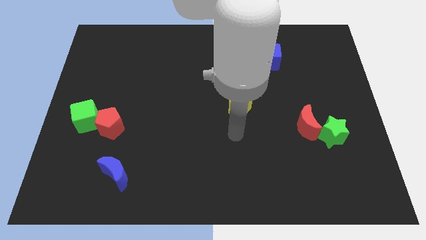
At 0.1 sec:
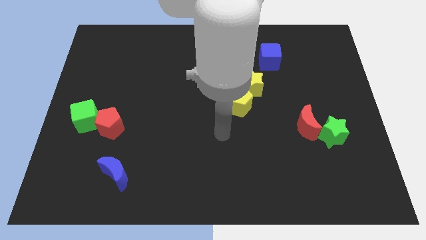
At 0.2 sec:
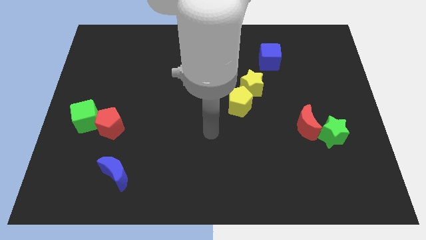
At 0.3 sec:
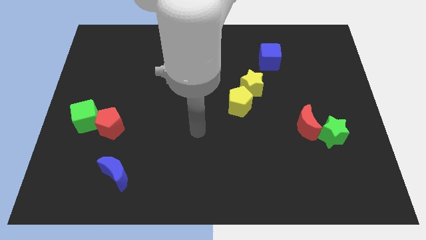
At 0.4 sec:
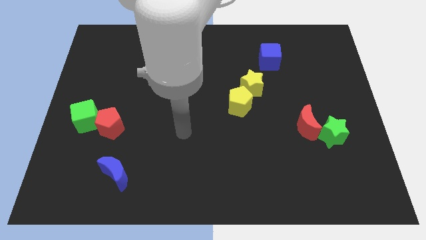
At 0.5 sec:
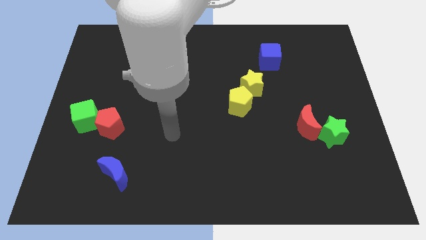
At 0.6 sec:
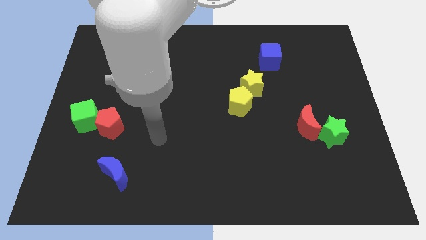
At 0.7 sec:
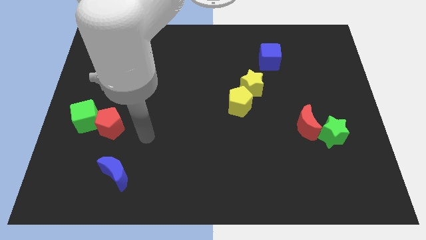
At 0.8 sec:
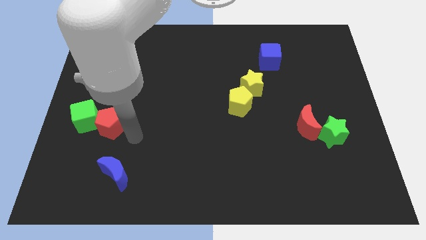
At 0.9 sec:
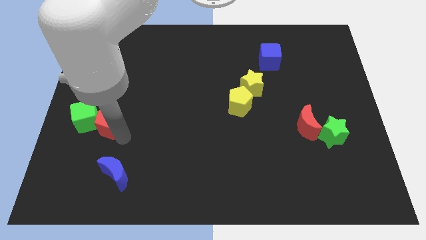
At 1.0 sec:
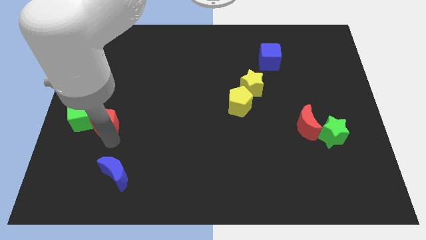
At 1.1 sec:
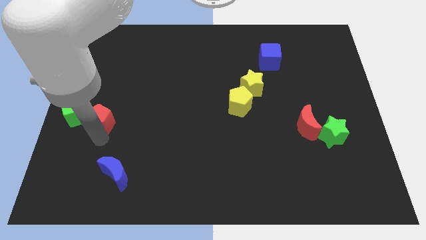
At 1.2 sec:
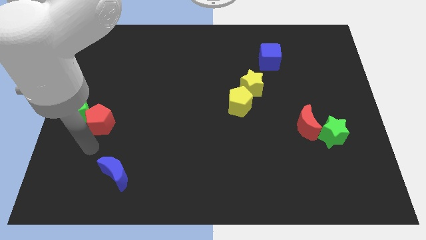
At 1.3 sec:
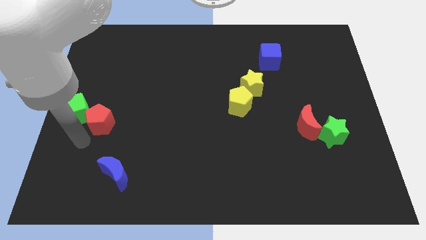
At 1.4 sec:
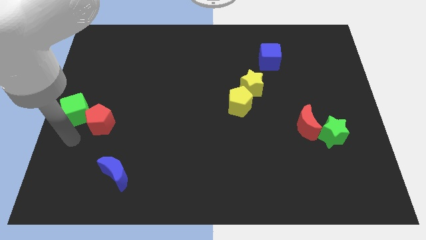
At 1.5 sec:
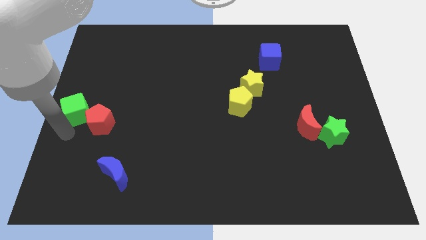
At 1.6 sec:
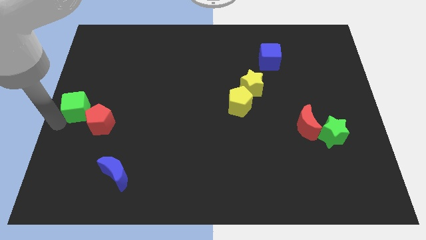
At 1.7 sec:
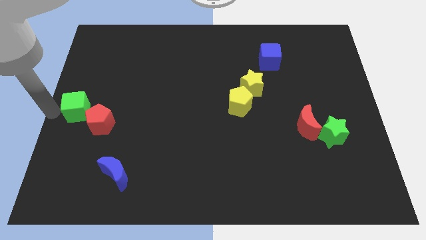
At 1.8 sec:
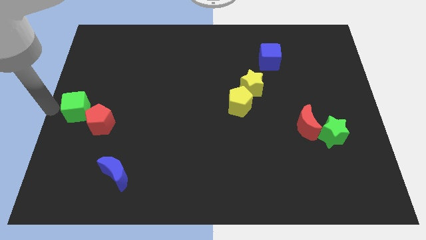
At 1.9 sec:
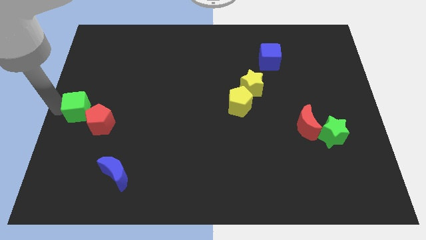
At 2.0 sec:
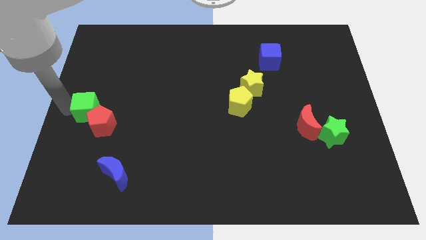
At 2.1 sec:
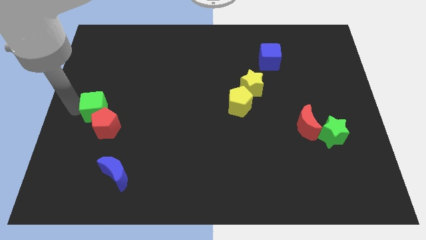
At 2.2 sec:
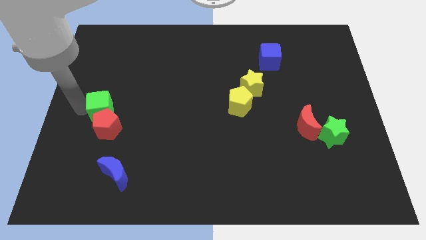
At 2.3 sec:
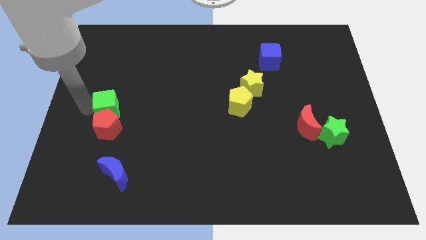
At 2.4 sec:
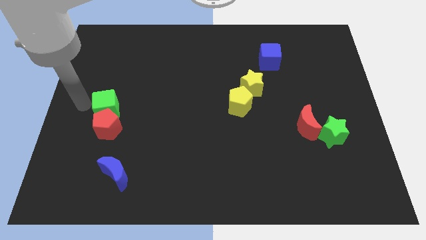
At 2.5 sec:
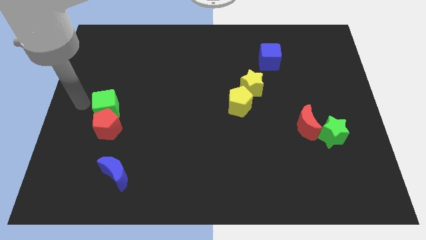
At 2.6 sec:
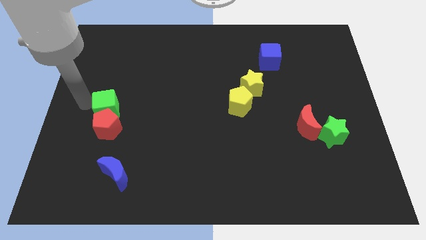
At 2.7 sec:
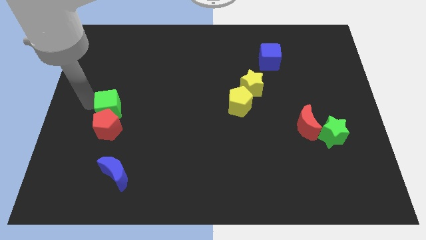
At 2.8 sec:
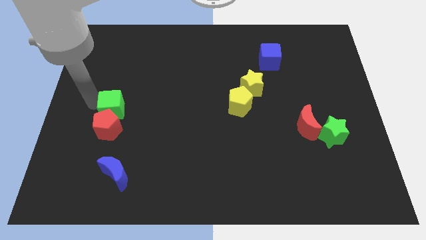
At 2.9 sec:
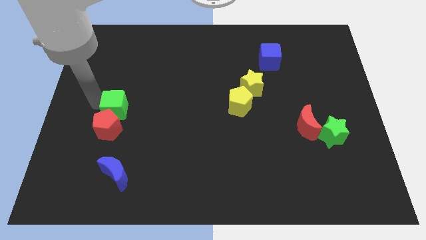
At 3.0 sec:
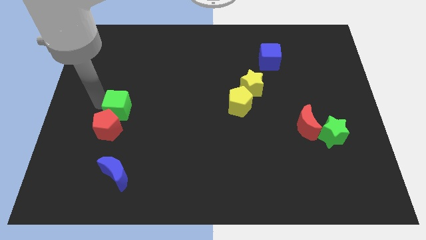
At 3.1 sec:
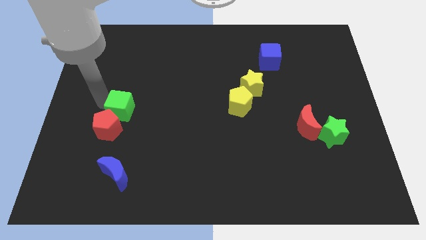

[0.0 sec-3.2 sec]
push the green cube right a little

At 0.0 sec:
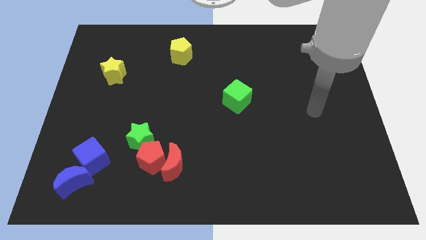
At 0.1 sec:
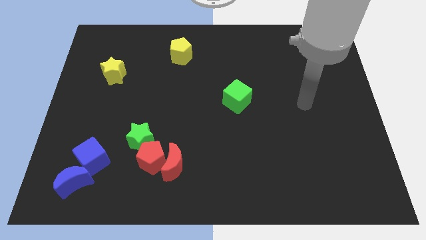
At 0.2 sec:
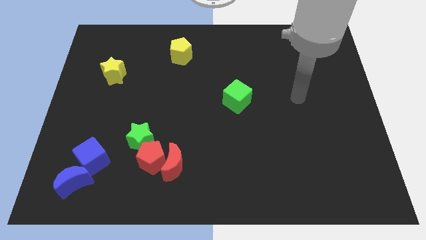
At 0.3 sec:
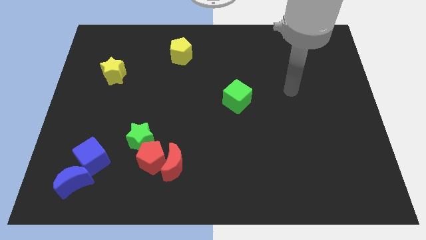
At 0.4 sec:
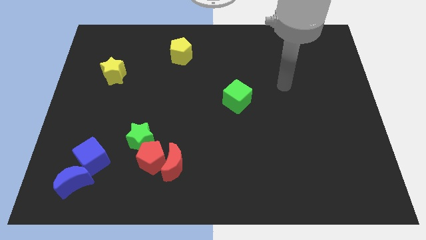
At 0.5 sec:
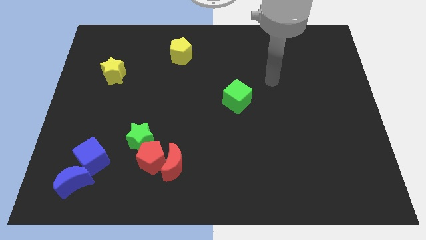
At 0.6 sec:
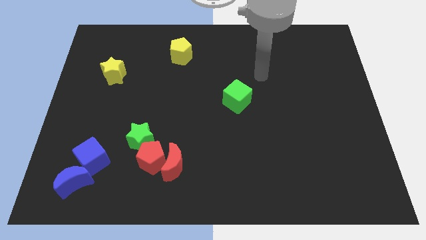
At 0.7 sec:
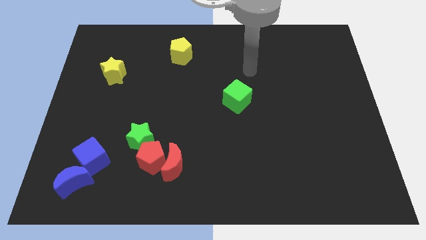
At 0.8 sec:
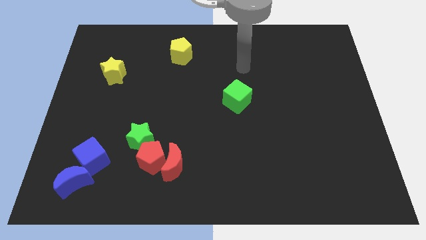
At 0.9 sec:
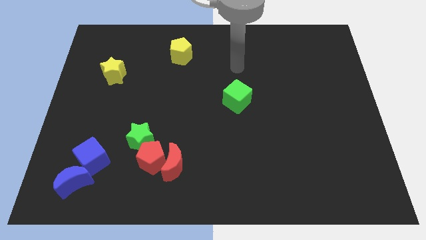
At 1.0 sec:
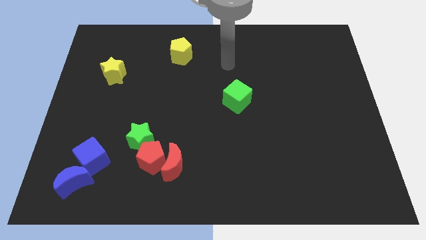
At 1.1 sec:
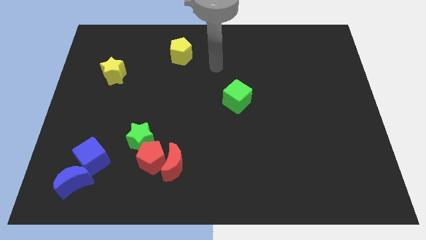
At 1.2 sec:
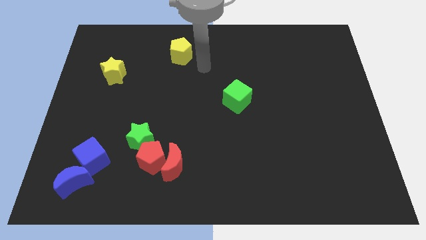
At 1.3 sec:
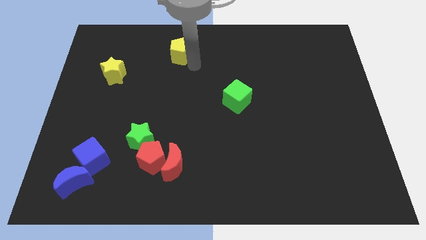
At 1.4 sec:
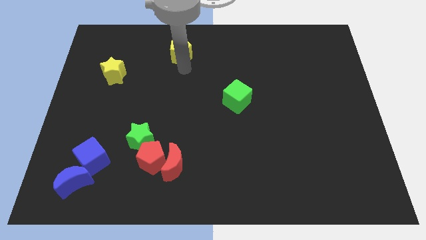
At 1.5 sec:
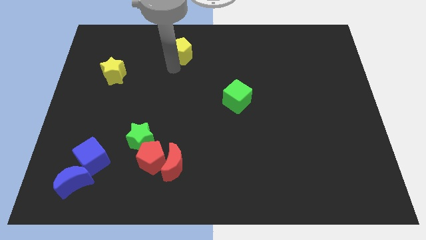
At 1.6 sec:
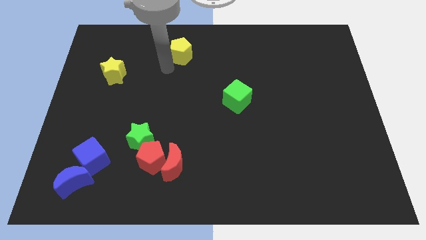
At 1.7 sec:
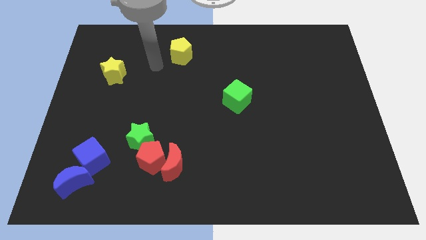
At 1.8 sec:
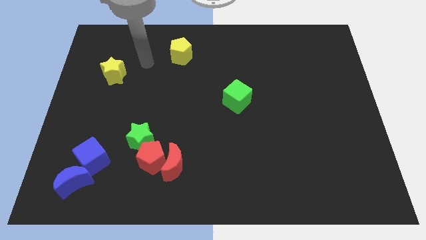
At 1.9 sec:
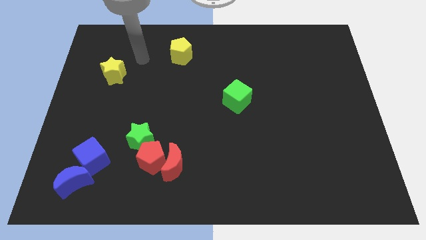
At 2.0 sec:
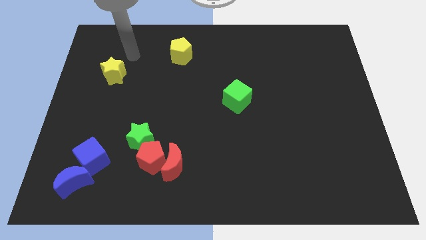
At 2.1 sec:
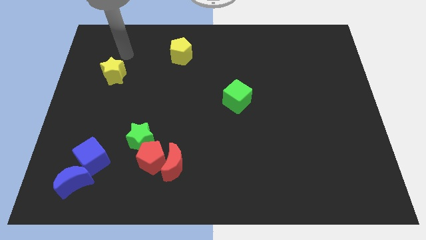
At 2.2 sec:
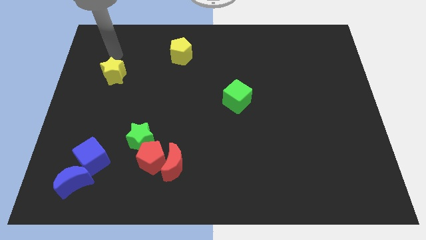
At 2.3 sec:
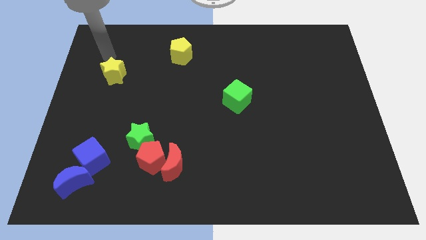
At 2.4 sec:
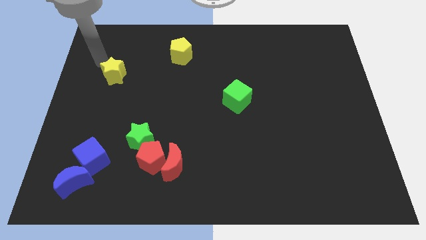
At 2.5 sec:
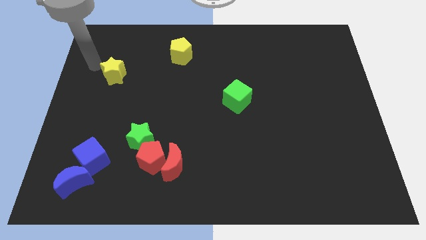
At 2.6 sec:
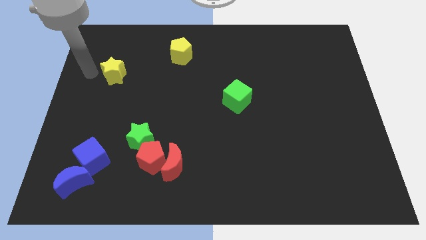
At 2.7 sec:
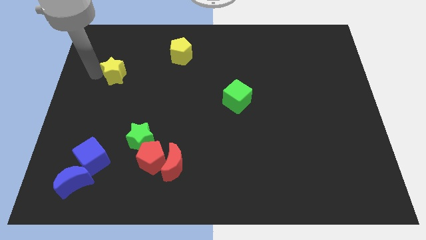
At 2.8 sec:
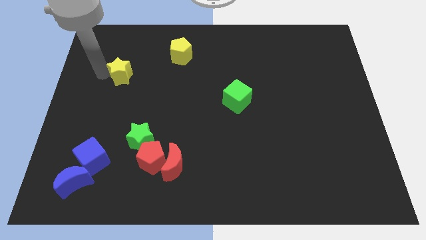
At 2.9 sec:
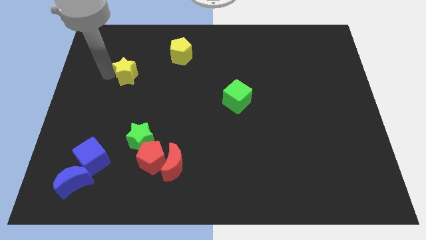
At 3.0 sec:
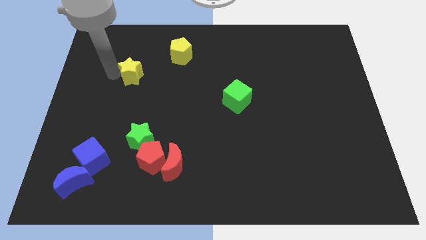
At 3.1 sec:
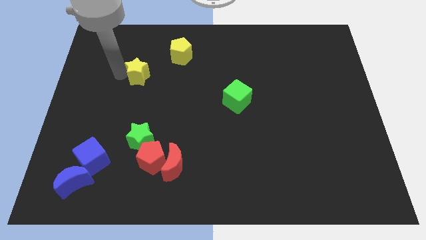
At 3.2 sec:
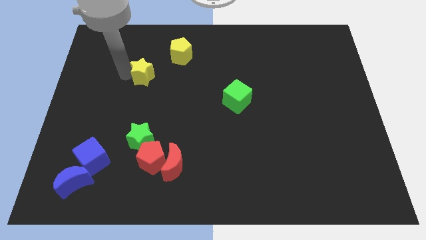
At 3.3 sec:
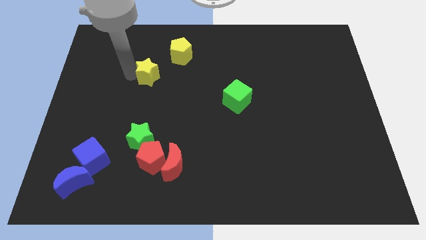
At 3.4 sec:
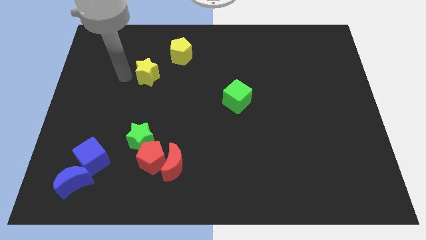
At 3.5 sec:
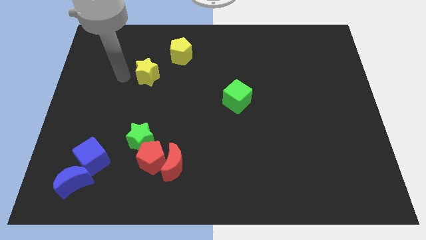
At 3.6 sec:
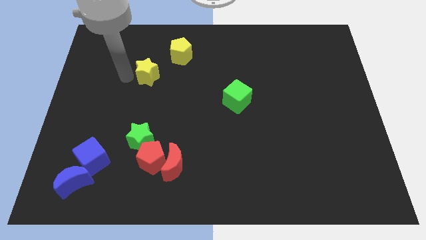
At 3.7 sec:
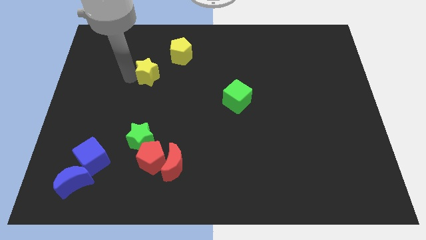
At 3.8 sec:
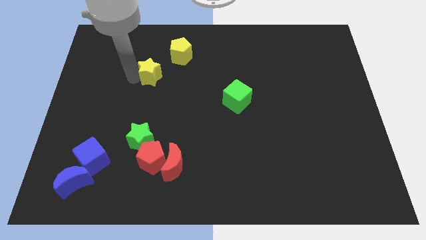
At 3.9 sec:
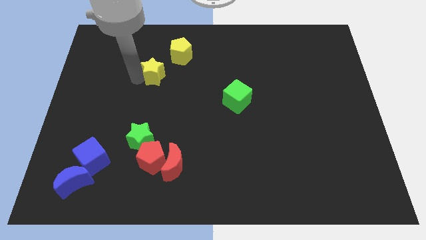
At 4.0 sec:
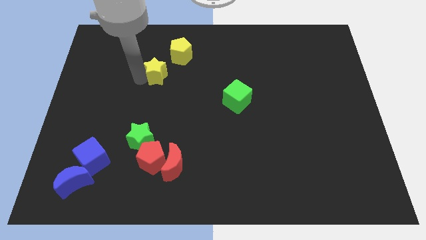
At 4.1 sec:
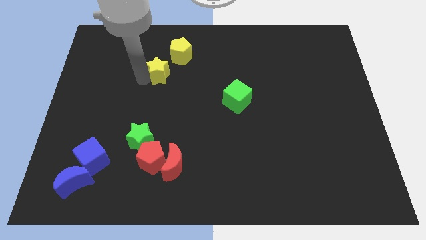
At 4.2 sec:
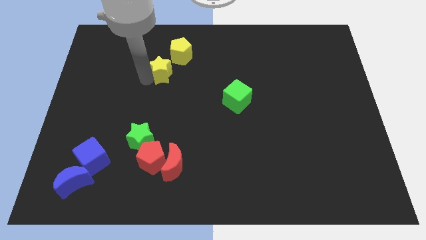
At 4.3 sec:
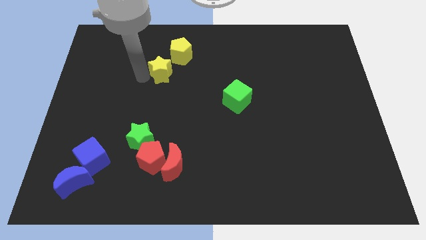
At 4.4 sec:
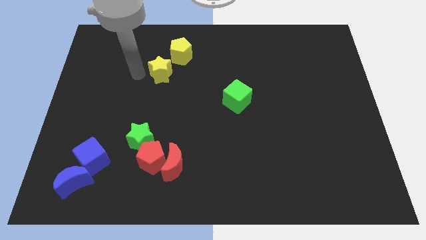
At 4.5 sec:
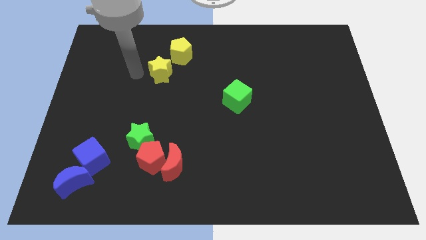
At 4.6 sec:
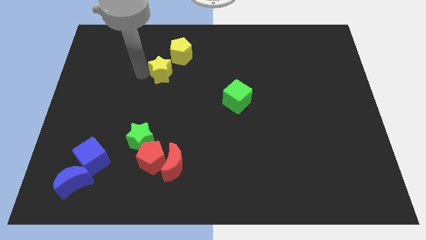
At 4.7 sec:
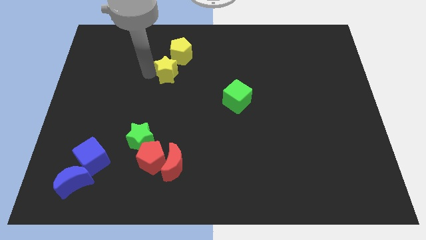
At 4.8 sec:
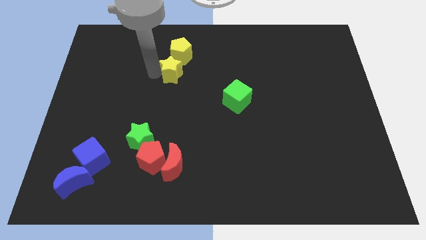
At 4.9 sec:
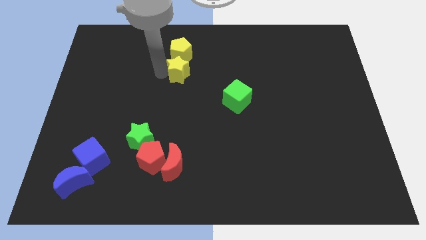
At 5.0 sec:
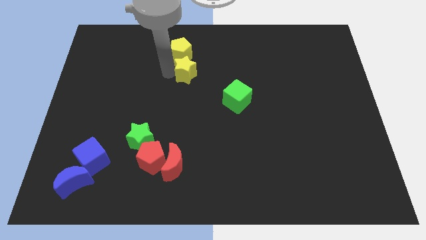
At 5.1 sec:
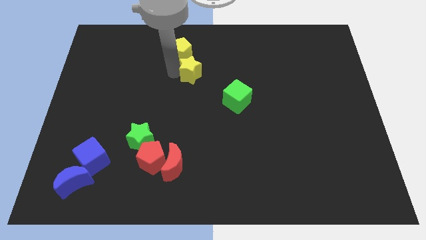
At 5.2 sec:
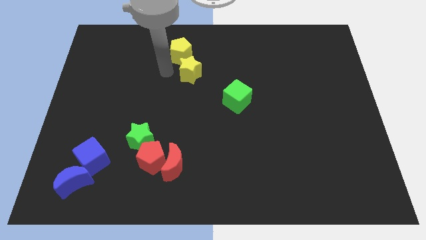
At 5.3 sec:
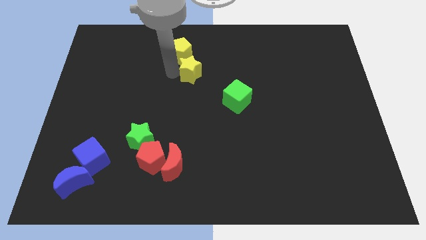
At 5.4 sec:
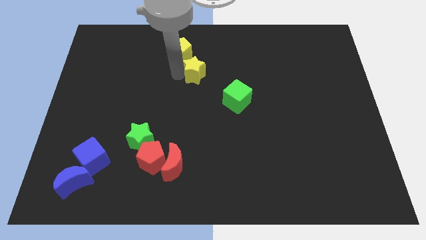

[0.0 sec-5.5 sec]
push the yellow star right
